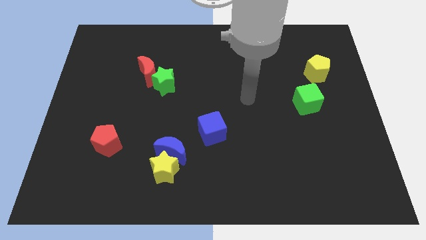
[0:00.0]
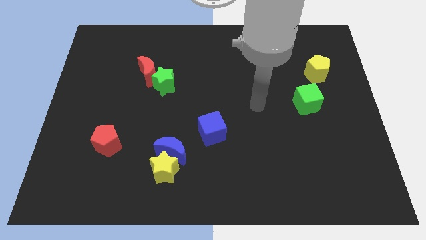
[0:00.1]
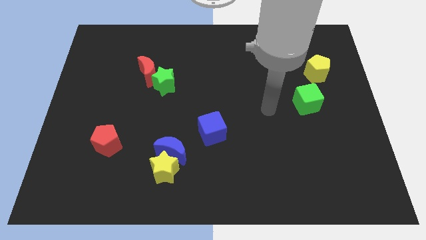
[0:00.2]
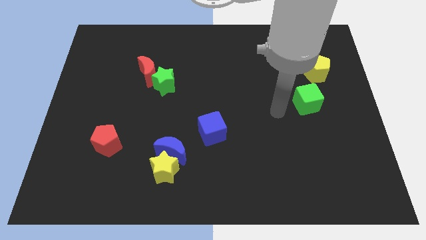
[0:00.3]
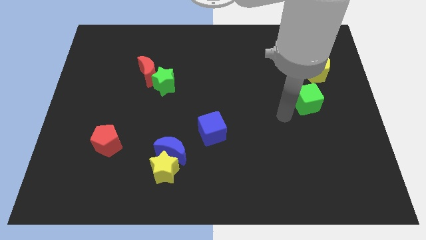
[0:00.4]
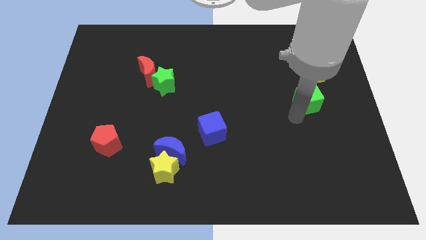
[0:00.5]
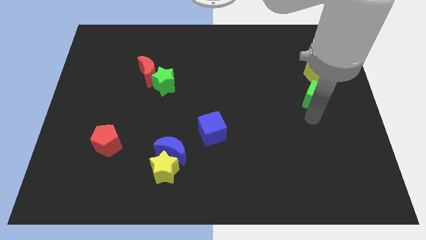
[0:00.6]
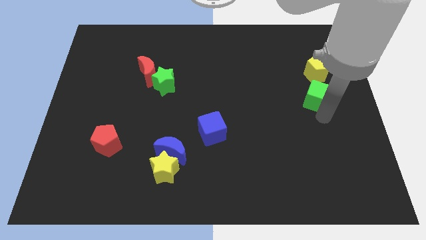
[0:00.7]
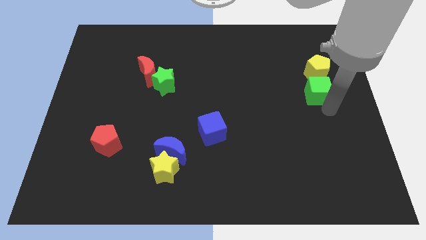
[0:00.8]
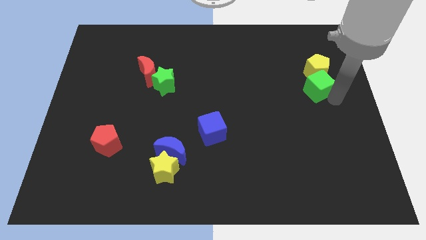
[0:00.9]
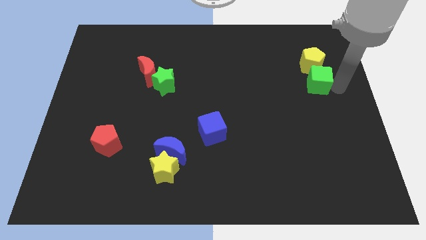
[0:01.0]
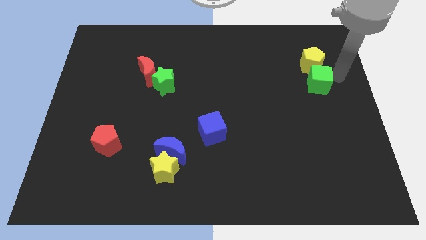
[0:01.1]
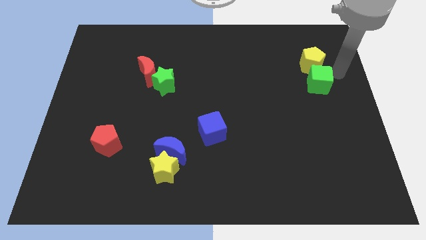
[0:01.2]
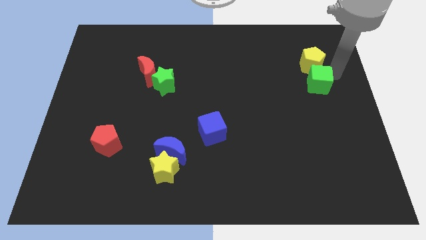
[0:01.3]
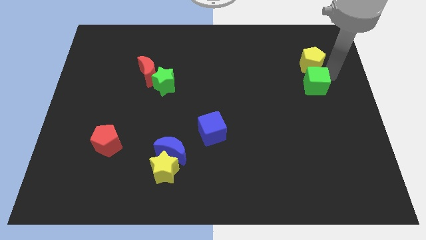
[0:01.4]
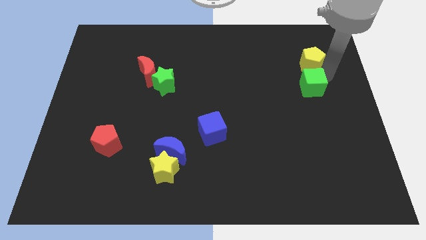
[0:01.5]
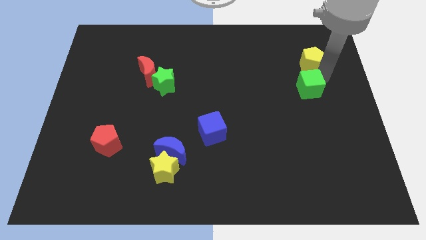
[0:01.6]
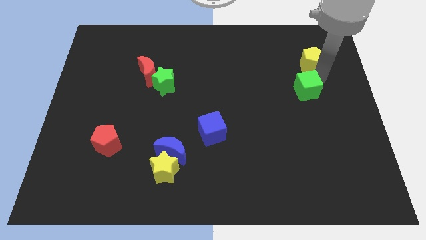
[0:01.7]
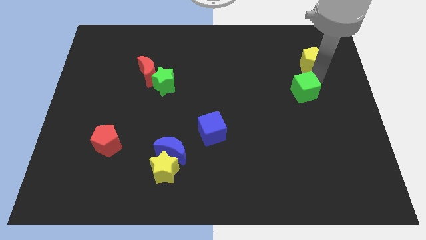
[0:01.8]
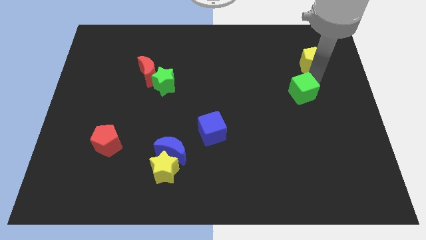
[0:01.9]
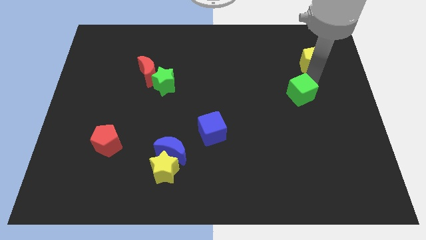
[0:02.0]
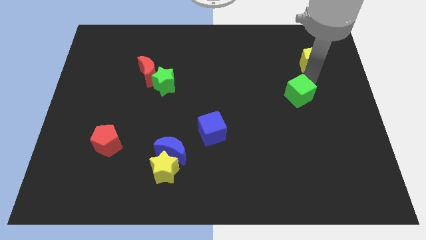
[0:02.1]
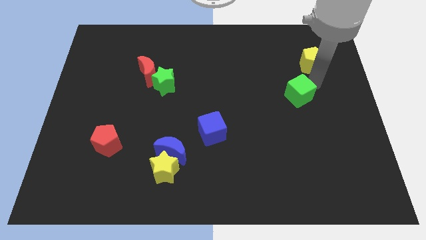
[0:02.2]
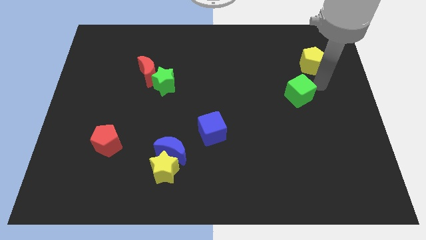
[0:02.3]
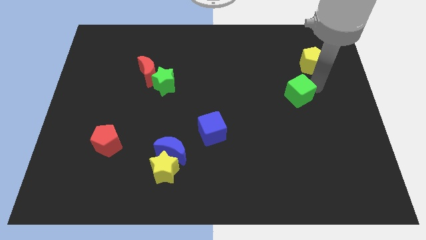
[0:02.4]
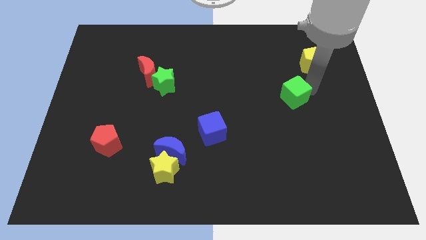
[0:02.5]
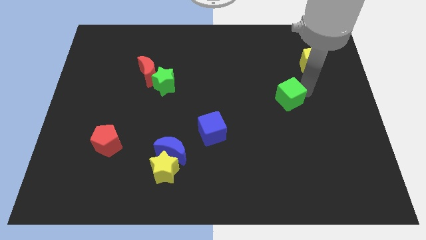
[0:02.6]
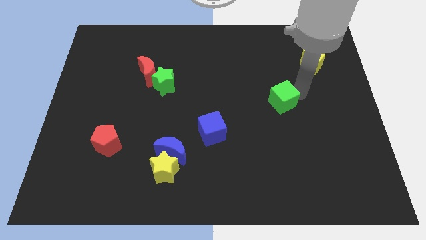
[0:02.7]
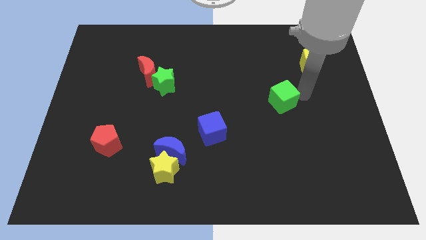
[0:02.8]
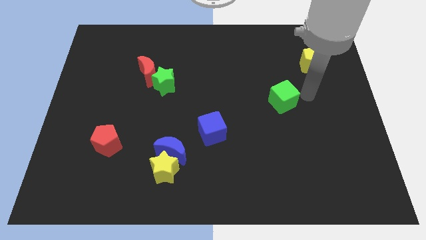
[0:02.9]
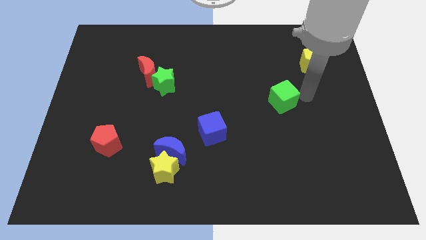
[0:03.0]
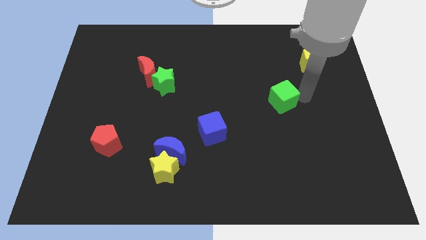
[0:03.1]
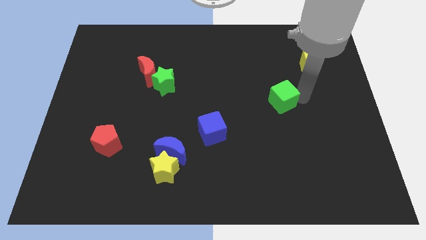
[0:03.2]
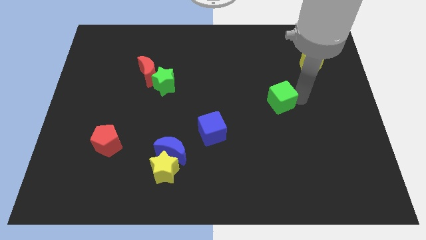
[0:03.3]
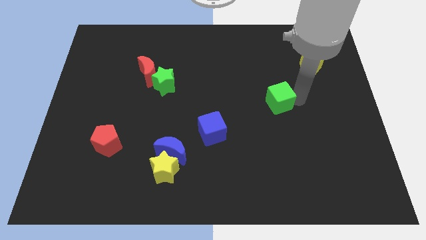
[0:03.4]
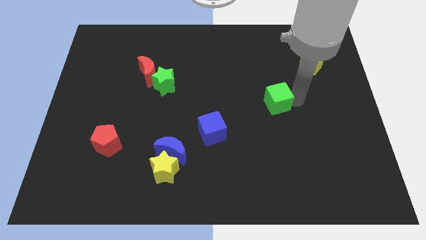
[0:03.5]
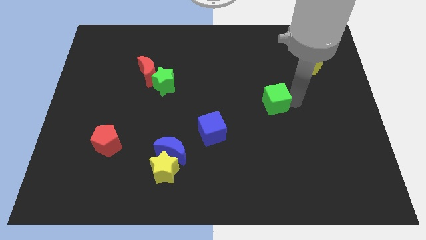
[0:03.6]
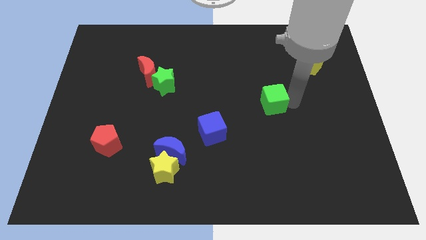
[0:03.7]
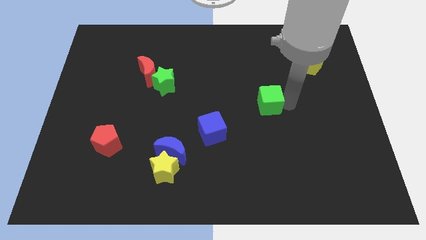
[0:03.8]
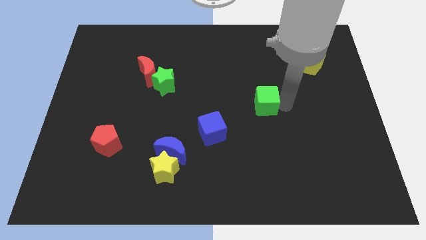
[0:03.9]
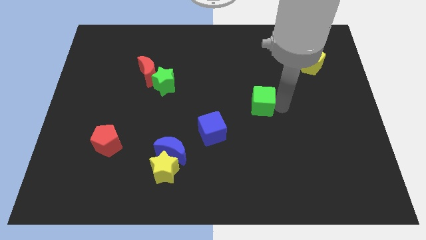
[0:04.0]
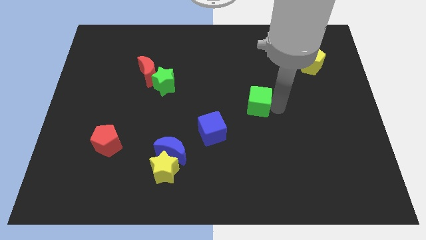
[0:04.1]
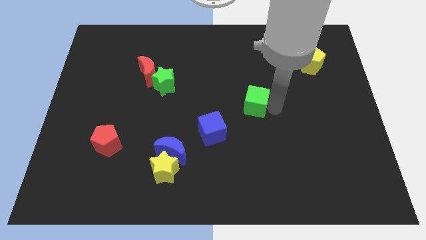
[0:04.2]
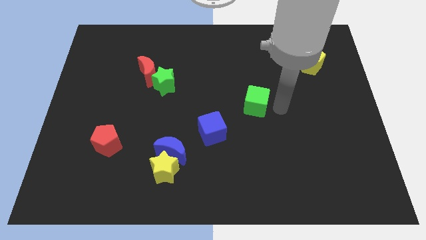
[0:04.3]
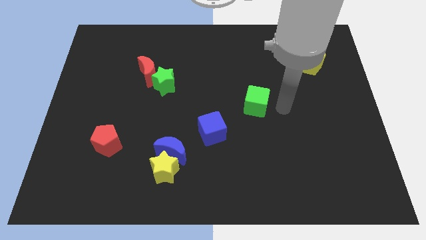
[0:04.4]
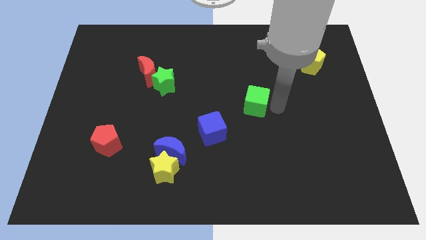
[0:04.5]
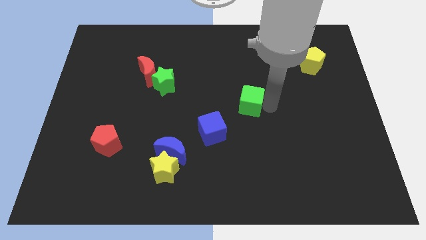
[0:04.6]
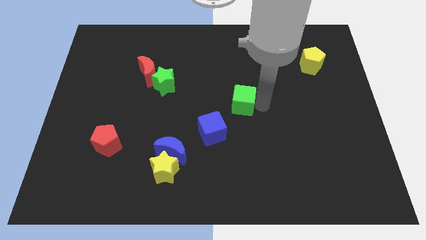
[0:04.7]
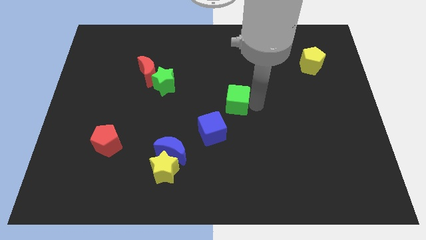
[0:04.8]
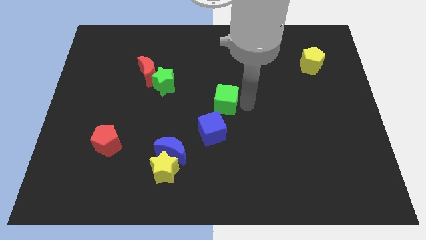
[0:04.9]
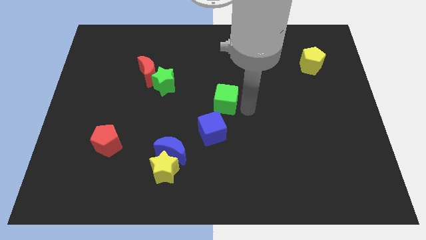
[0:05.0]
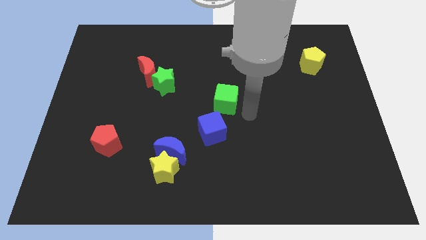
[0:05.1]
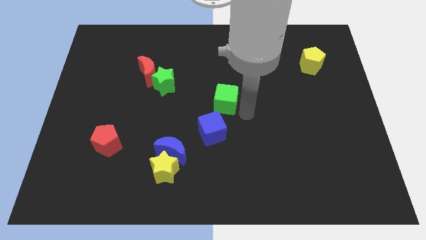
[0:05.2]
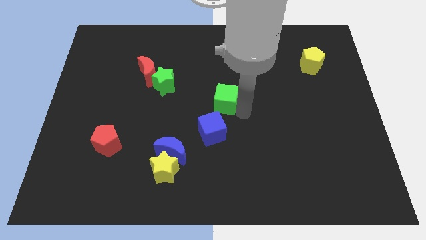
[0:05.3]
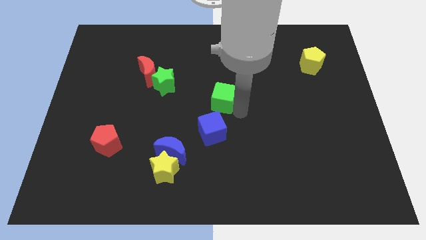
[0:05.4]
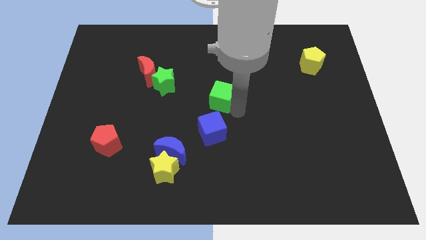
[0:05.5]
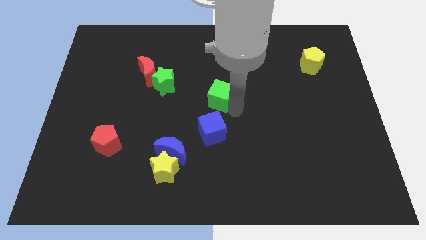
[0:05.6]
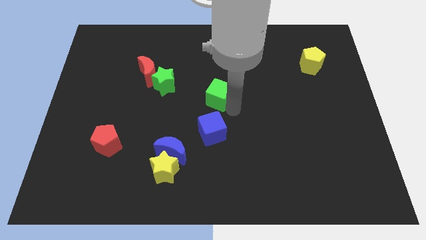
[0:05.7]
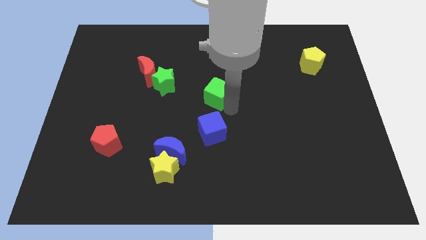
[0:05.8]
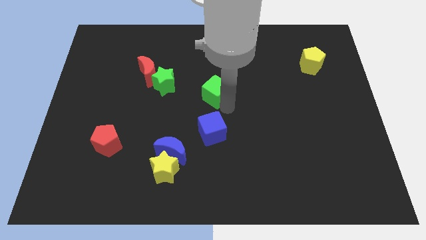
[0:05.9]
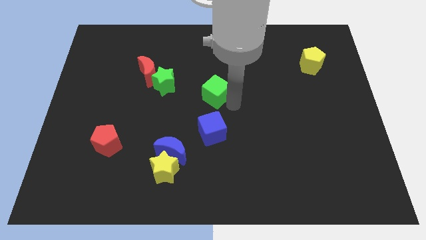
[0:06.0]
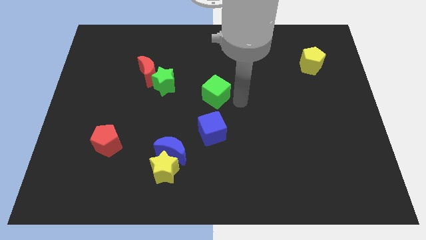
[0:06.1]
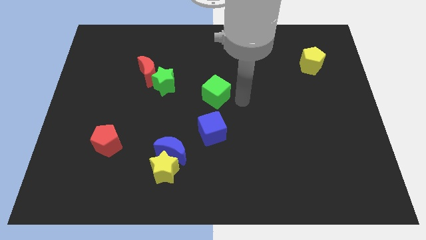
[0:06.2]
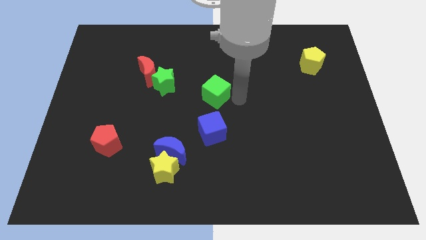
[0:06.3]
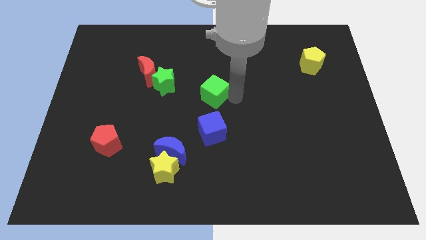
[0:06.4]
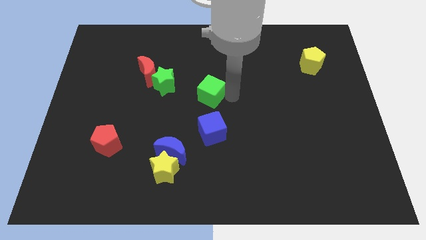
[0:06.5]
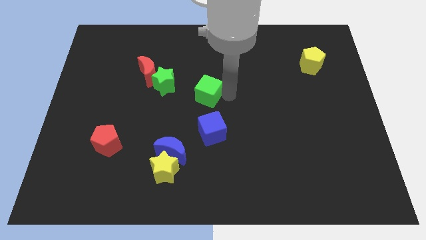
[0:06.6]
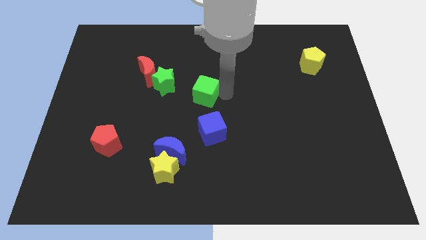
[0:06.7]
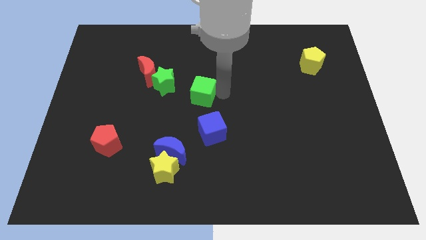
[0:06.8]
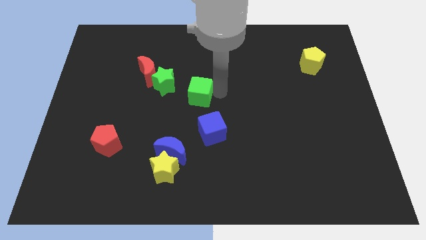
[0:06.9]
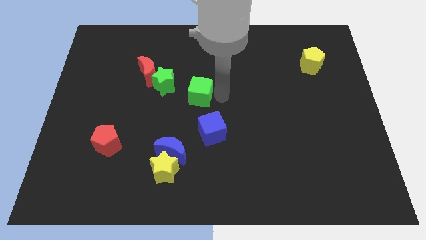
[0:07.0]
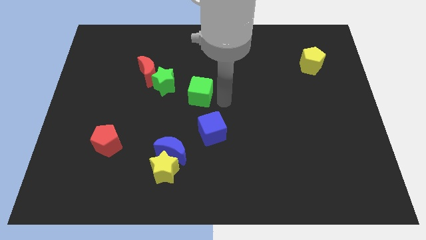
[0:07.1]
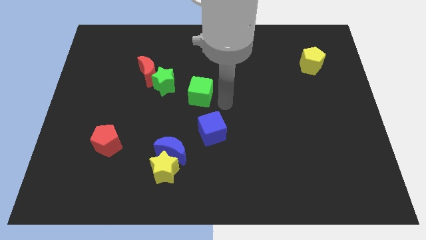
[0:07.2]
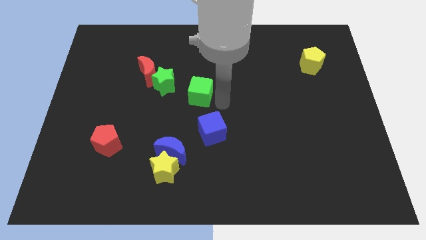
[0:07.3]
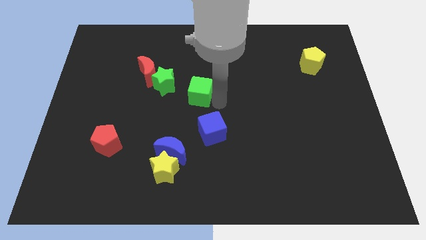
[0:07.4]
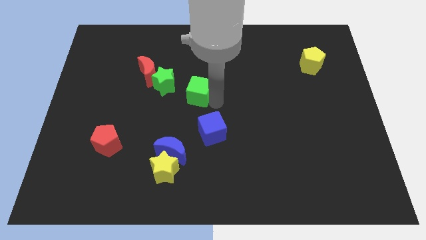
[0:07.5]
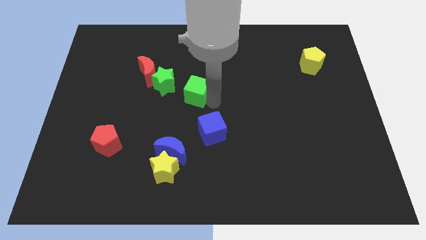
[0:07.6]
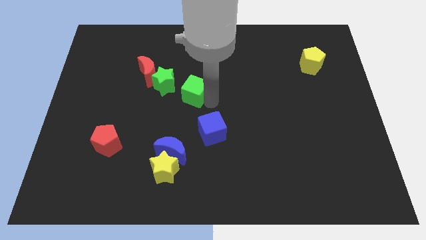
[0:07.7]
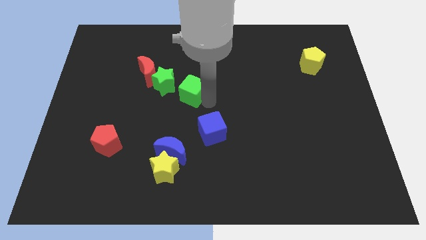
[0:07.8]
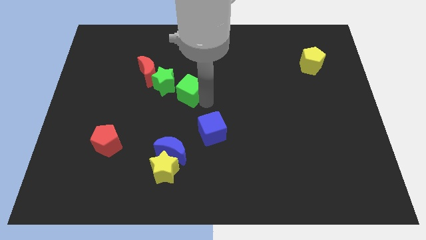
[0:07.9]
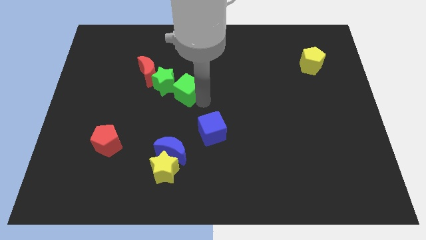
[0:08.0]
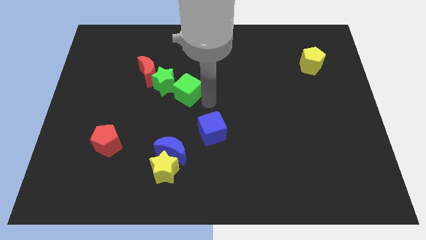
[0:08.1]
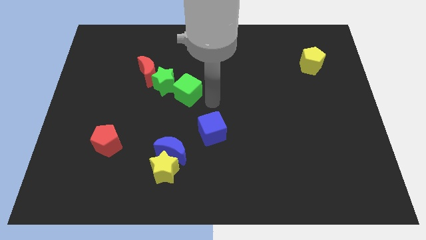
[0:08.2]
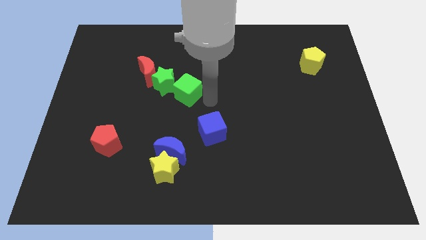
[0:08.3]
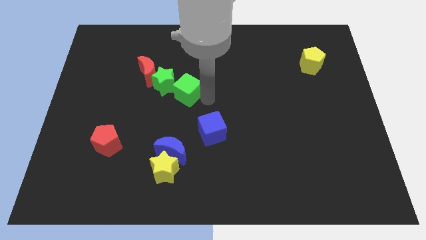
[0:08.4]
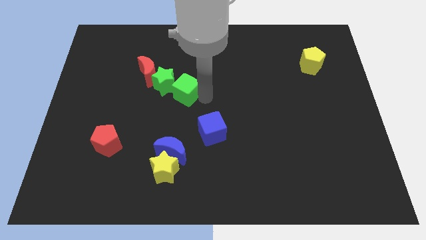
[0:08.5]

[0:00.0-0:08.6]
push the green cube next to the green star
